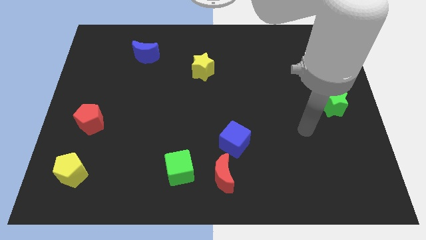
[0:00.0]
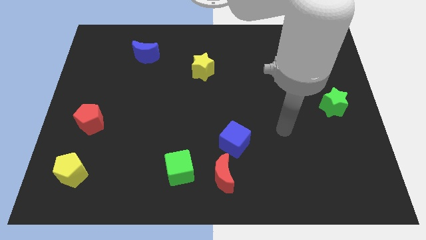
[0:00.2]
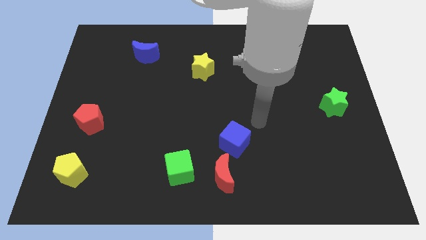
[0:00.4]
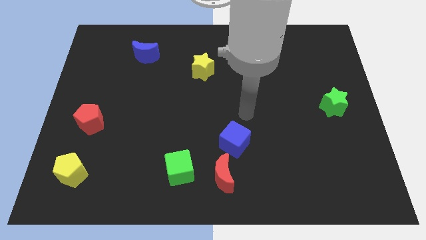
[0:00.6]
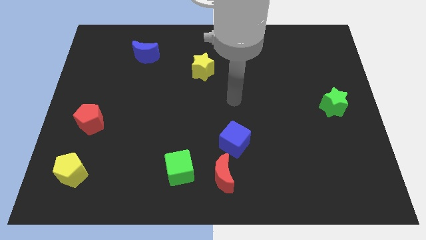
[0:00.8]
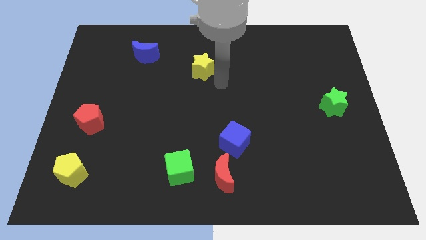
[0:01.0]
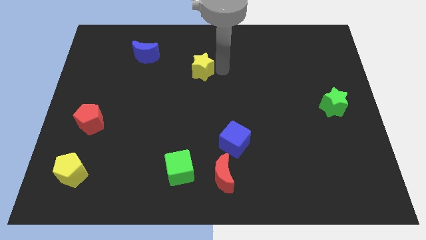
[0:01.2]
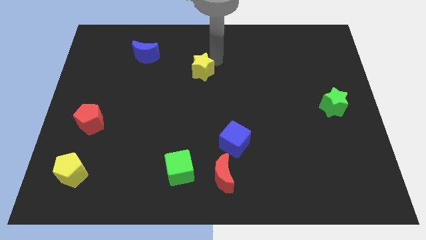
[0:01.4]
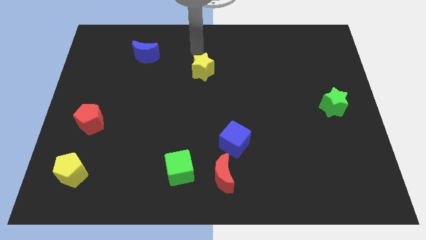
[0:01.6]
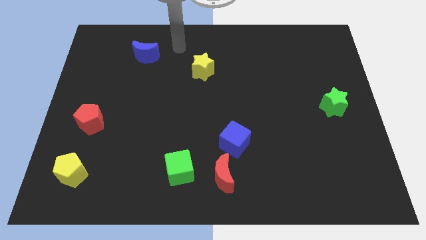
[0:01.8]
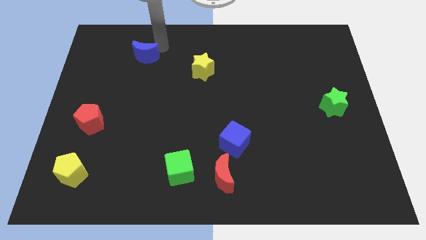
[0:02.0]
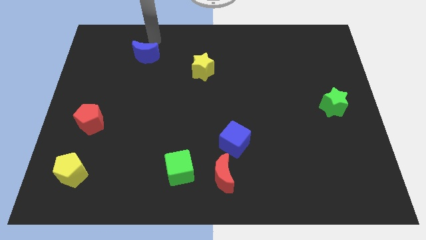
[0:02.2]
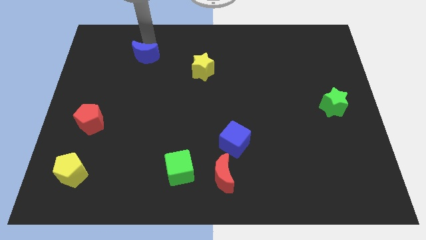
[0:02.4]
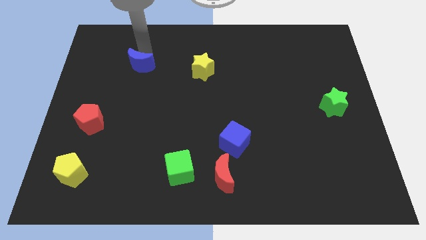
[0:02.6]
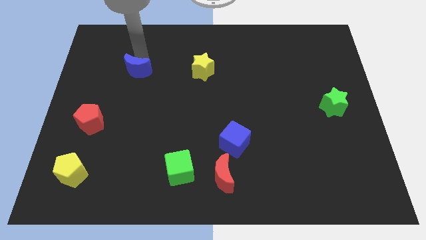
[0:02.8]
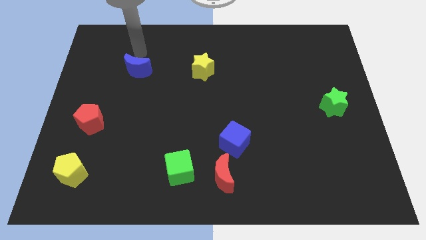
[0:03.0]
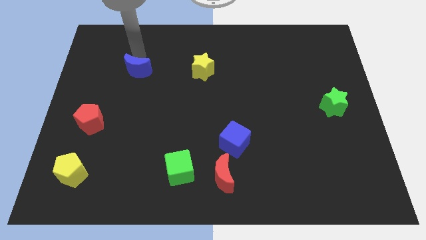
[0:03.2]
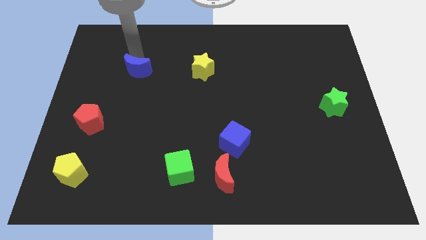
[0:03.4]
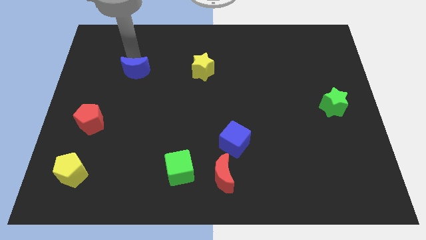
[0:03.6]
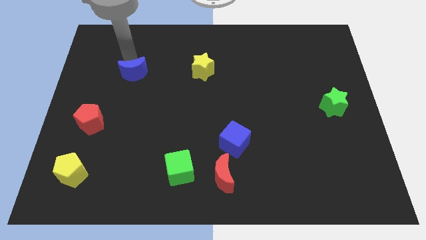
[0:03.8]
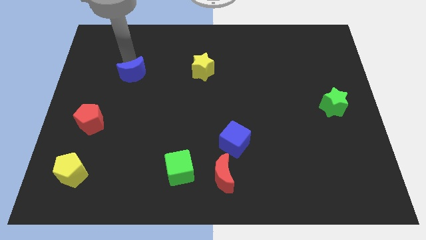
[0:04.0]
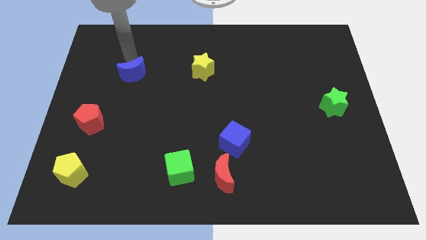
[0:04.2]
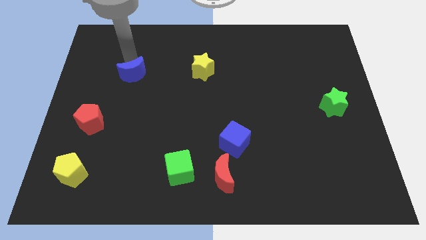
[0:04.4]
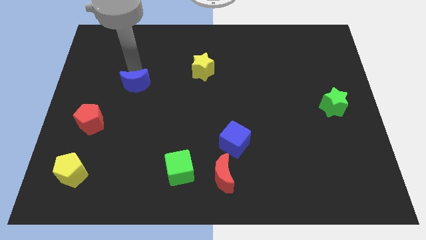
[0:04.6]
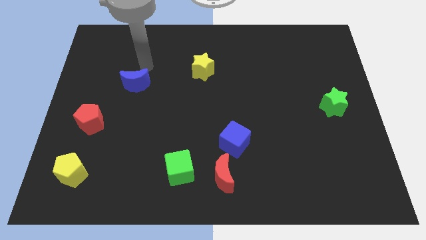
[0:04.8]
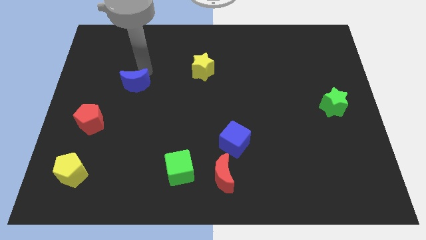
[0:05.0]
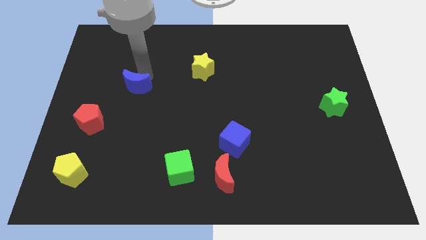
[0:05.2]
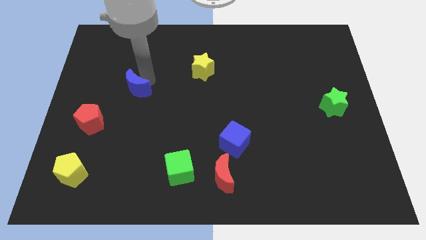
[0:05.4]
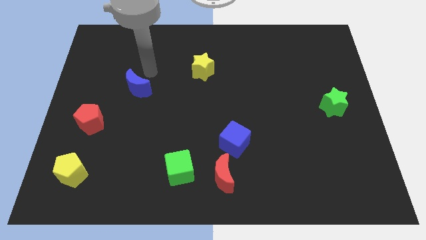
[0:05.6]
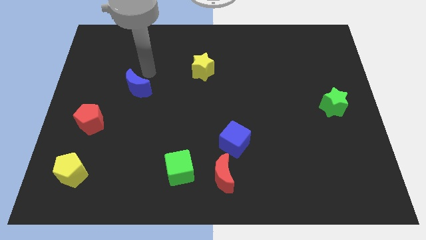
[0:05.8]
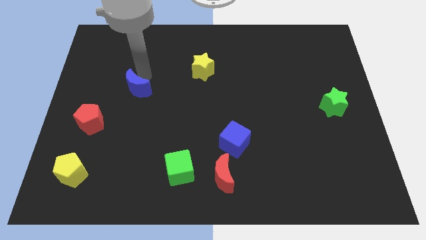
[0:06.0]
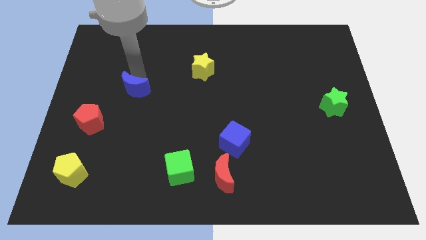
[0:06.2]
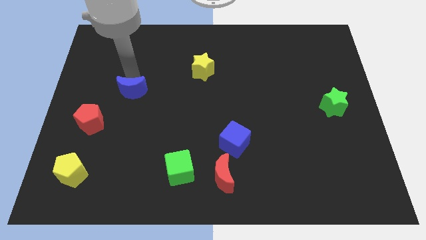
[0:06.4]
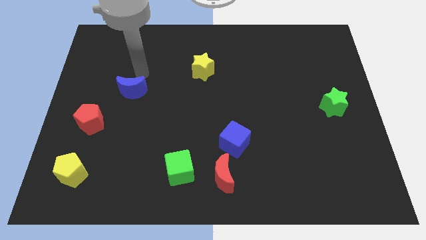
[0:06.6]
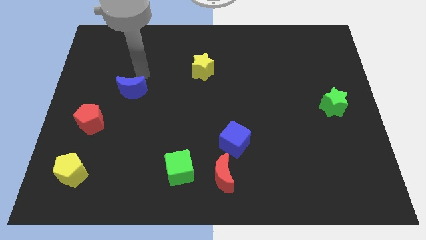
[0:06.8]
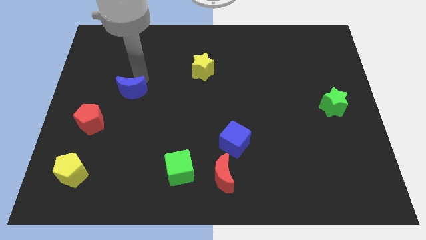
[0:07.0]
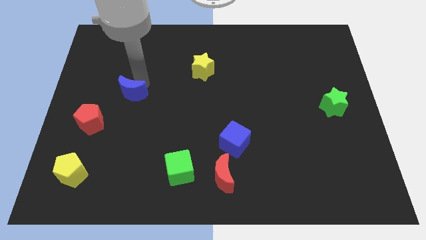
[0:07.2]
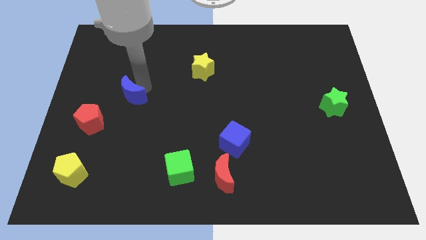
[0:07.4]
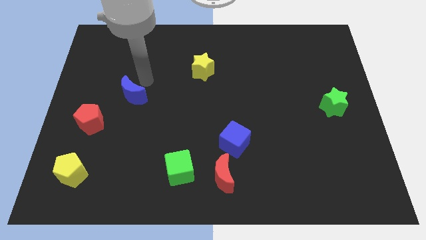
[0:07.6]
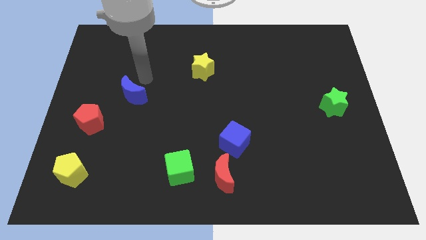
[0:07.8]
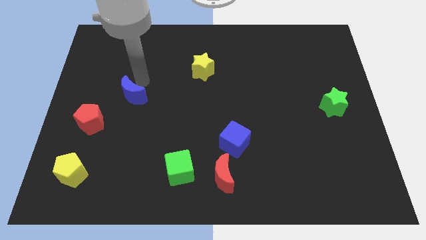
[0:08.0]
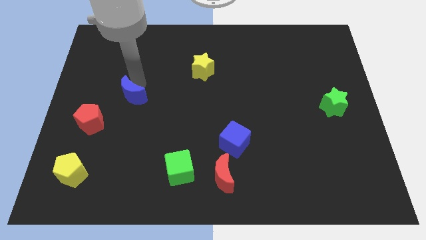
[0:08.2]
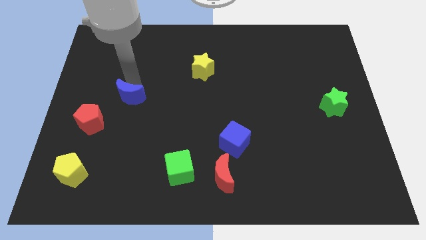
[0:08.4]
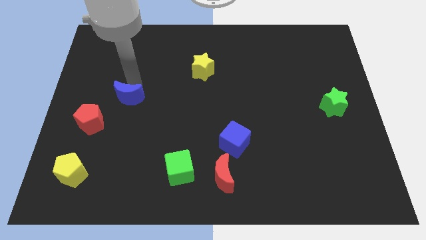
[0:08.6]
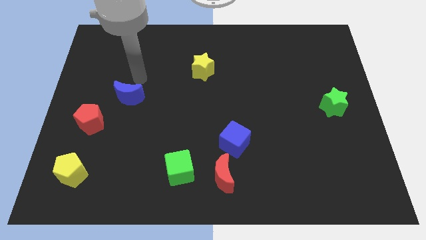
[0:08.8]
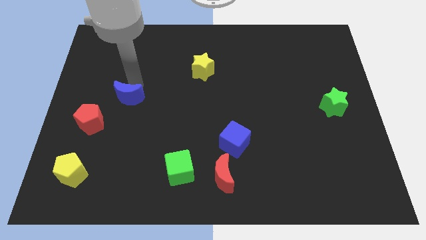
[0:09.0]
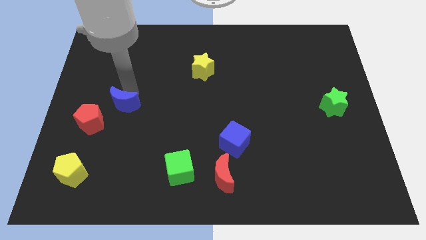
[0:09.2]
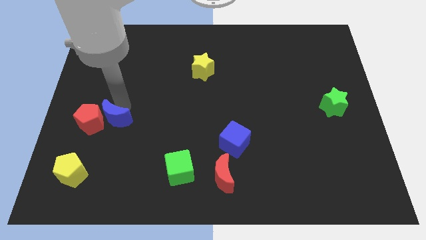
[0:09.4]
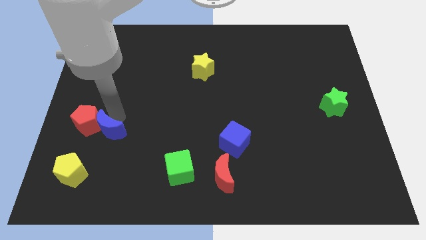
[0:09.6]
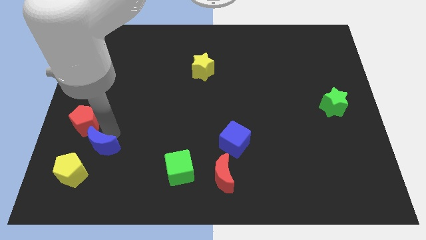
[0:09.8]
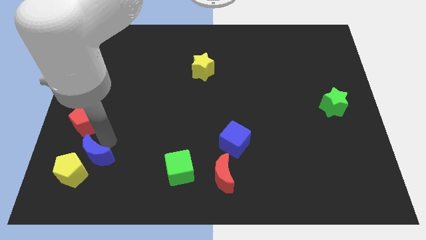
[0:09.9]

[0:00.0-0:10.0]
slide the blue moon towards the yellow pentagon

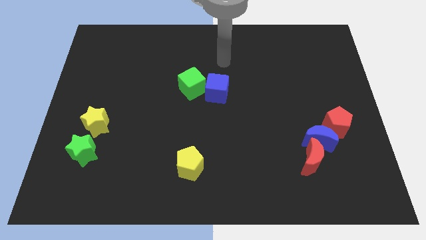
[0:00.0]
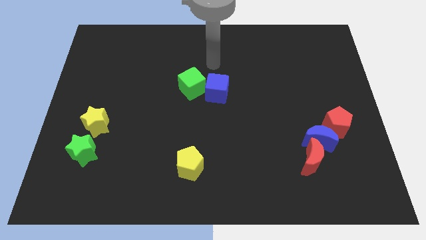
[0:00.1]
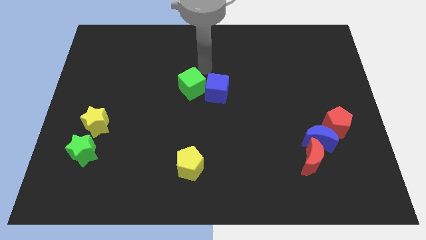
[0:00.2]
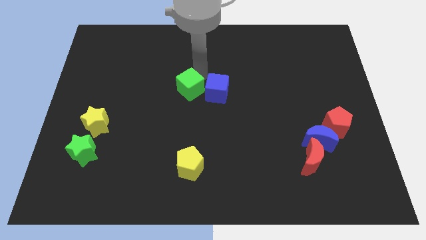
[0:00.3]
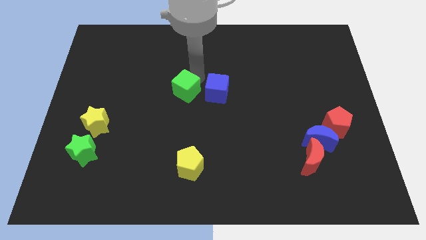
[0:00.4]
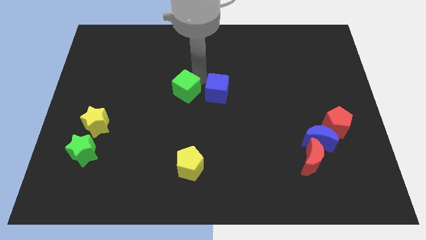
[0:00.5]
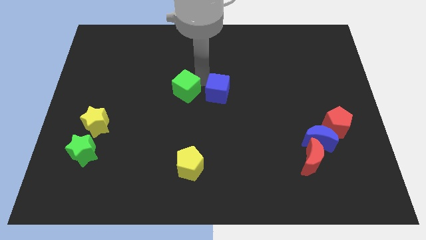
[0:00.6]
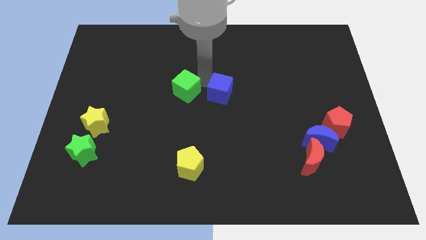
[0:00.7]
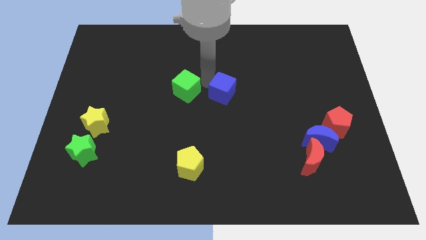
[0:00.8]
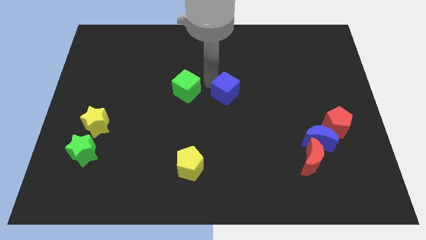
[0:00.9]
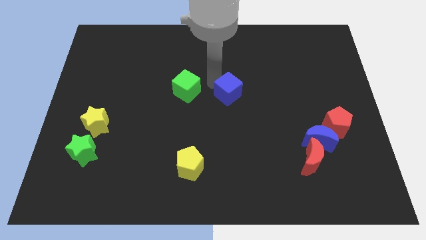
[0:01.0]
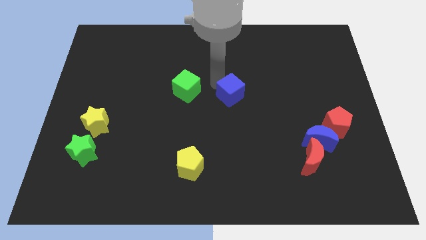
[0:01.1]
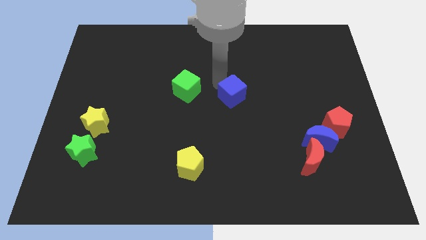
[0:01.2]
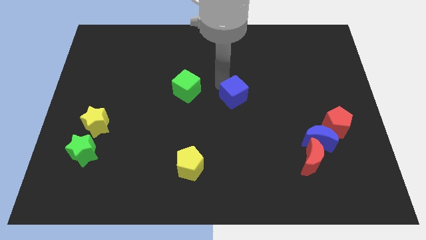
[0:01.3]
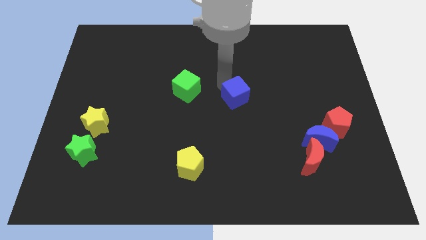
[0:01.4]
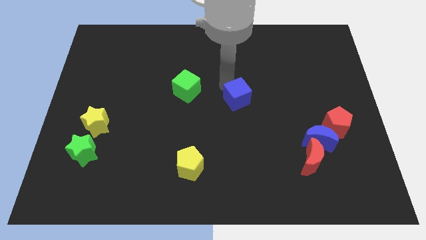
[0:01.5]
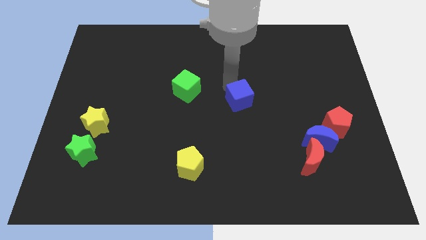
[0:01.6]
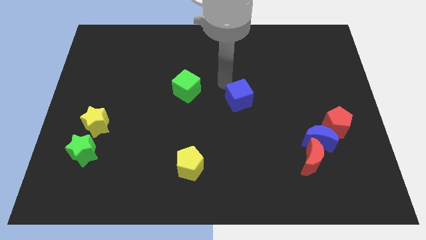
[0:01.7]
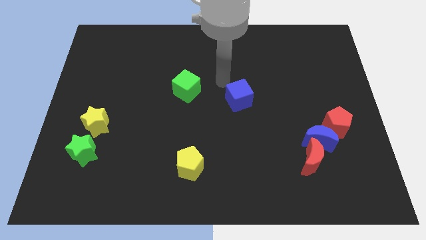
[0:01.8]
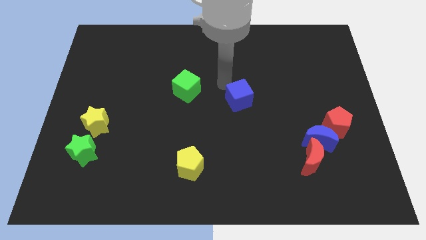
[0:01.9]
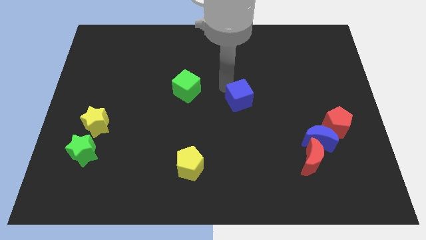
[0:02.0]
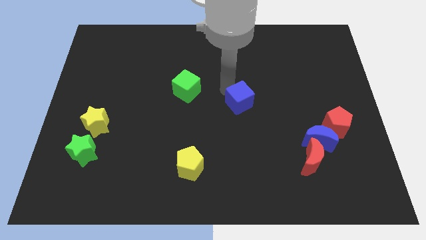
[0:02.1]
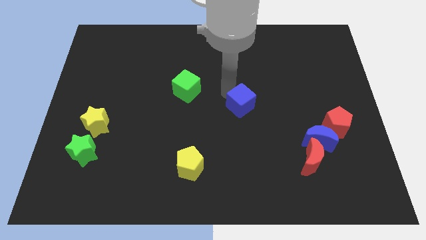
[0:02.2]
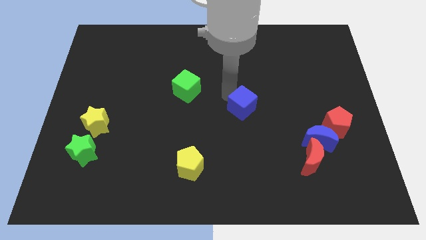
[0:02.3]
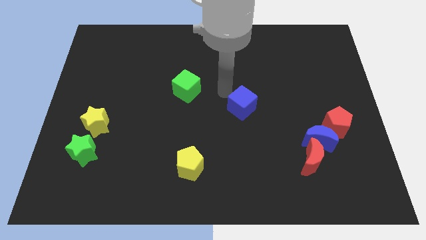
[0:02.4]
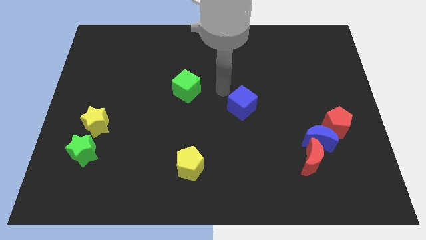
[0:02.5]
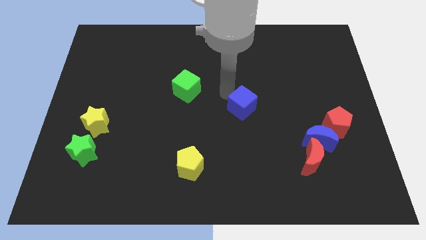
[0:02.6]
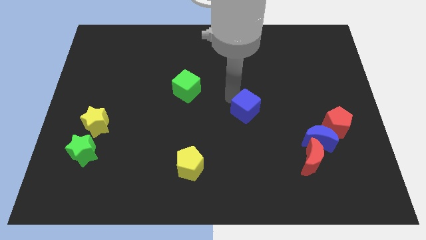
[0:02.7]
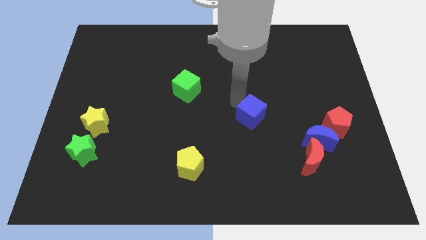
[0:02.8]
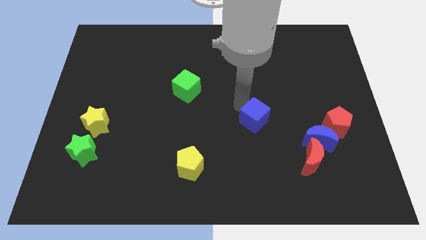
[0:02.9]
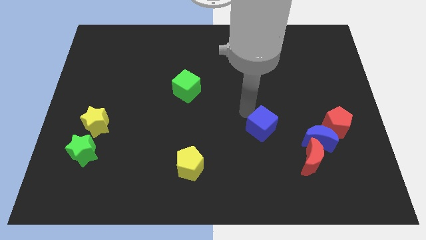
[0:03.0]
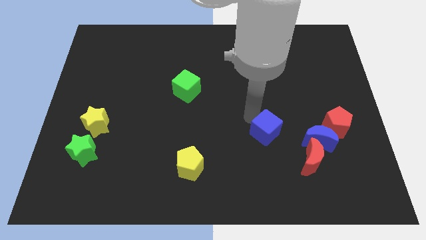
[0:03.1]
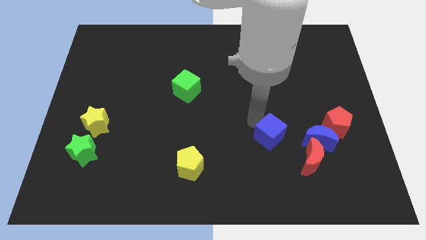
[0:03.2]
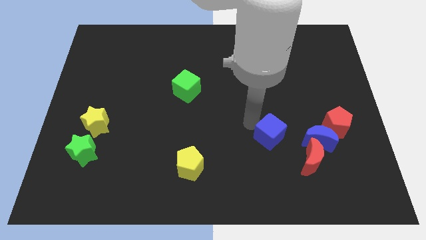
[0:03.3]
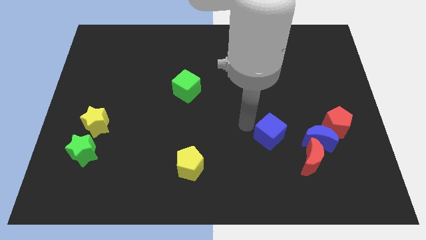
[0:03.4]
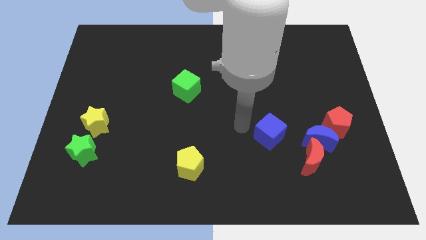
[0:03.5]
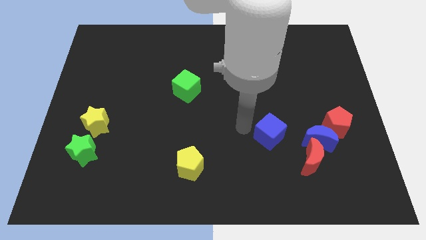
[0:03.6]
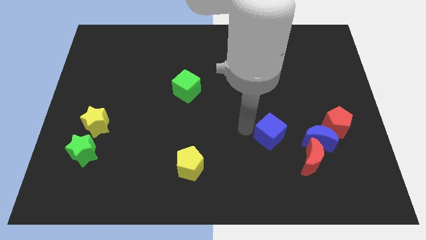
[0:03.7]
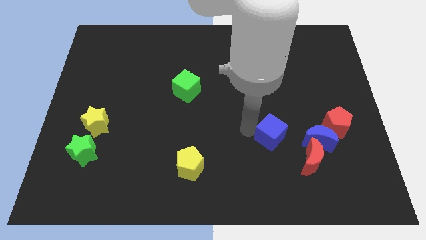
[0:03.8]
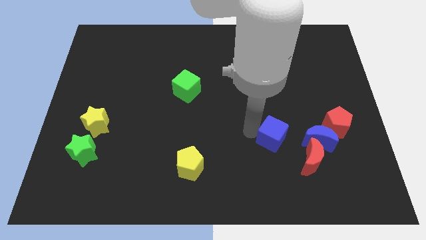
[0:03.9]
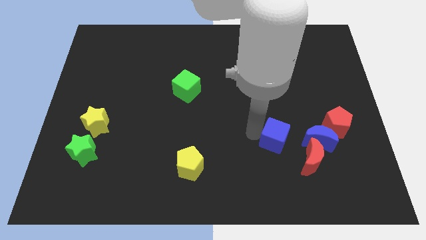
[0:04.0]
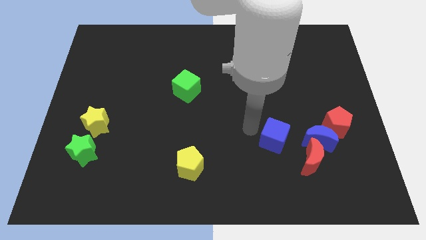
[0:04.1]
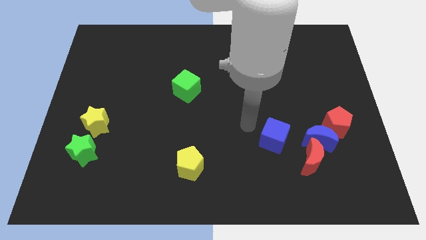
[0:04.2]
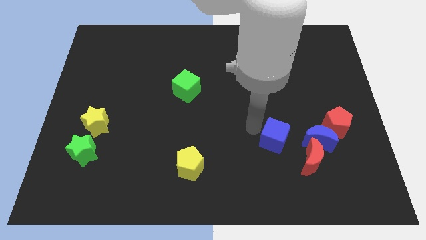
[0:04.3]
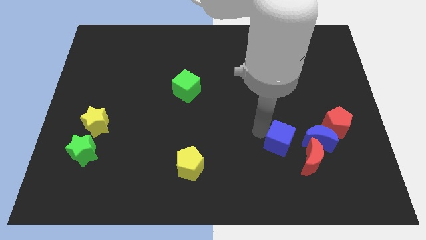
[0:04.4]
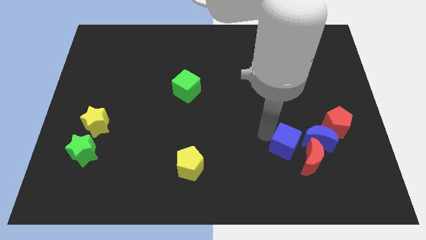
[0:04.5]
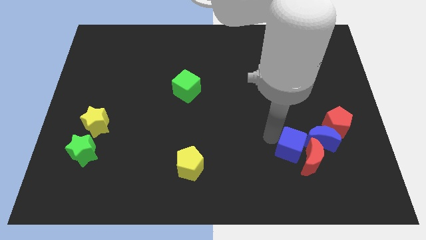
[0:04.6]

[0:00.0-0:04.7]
slide the blue cube next to the red moon
